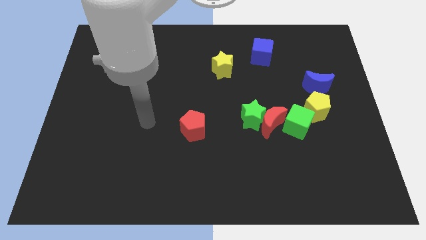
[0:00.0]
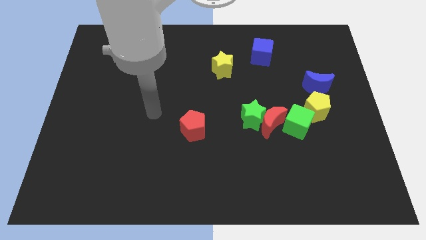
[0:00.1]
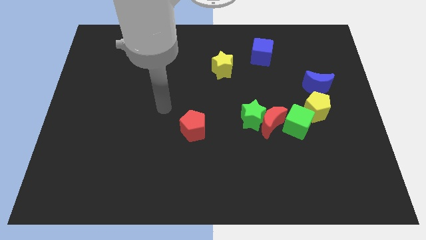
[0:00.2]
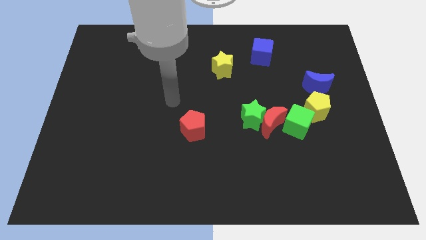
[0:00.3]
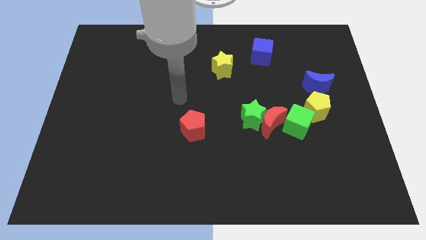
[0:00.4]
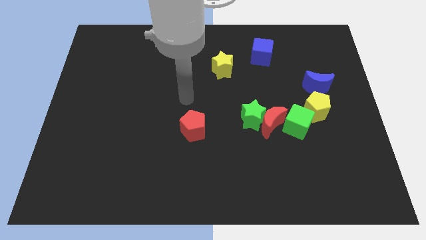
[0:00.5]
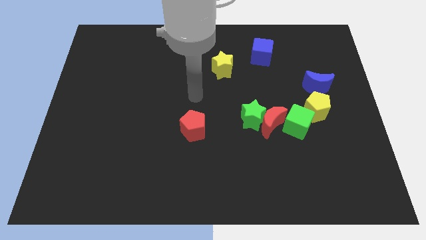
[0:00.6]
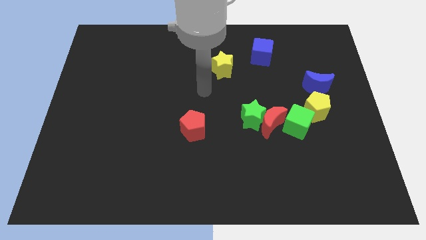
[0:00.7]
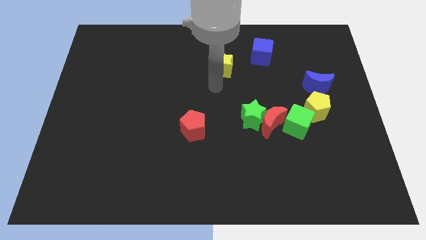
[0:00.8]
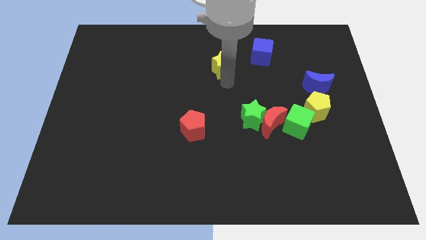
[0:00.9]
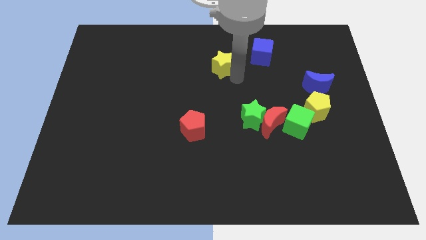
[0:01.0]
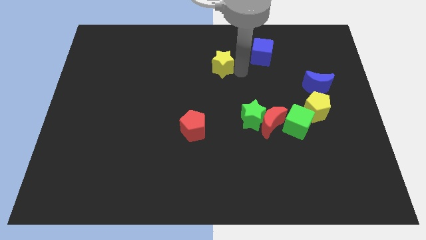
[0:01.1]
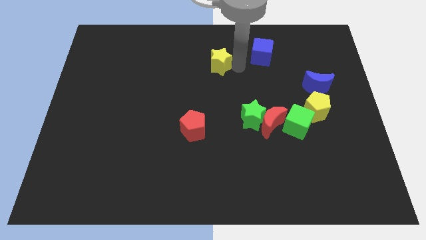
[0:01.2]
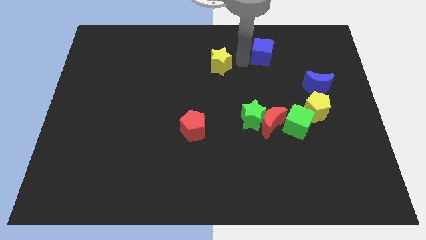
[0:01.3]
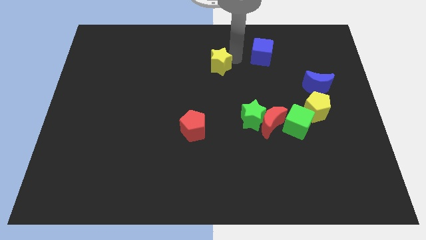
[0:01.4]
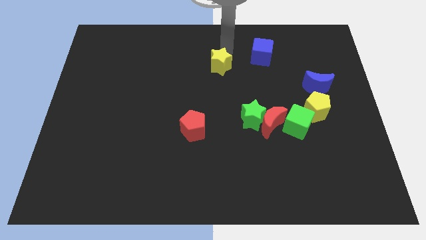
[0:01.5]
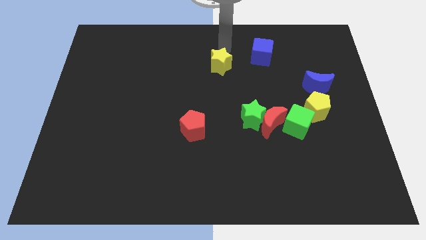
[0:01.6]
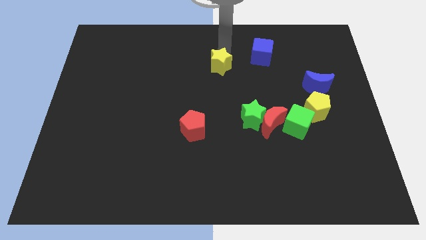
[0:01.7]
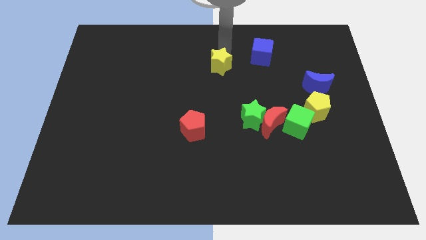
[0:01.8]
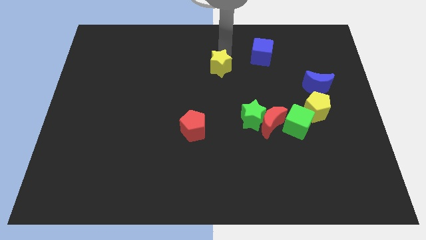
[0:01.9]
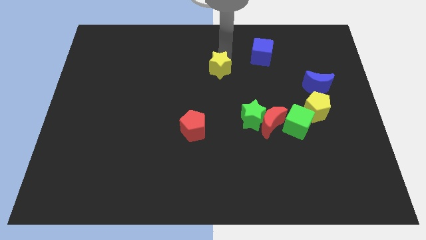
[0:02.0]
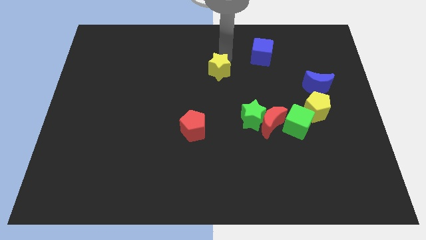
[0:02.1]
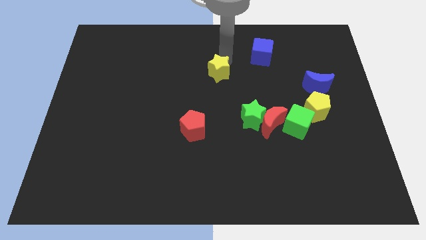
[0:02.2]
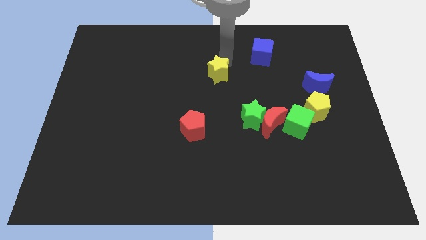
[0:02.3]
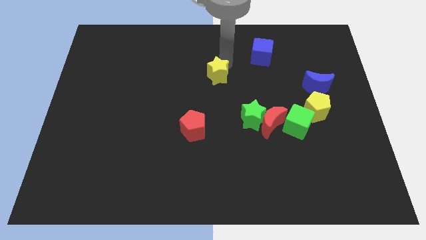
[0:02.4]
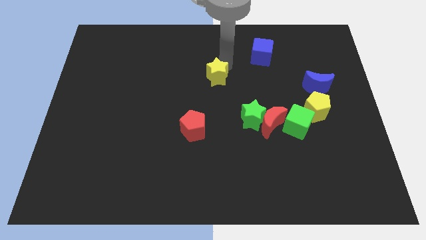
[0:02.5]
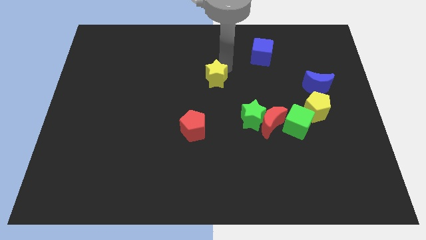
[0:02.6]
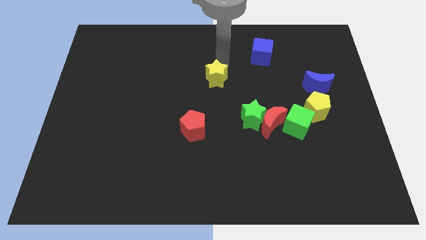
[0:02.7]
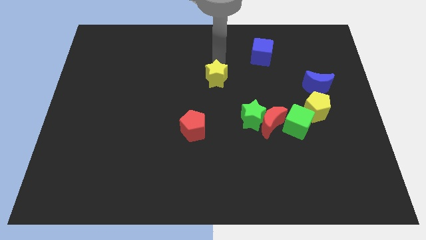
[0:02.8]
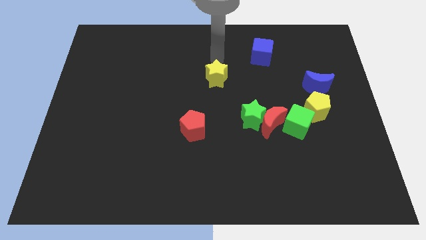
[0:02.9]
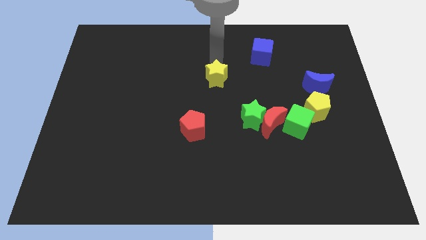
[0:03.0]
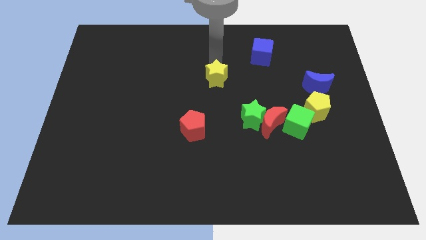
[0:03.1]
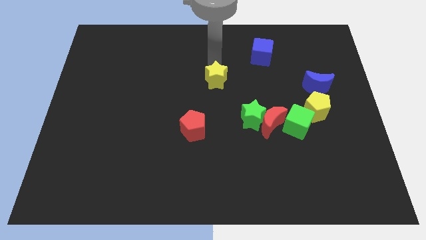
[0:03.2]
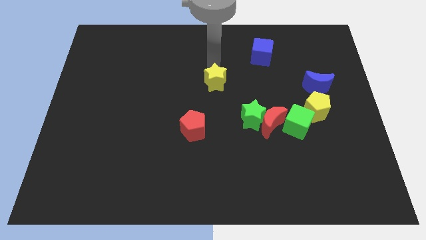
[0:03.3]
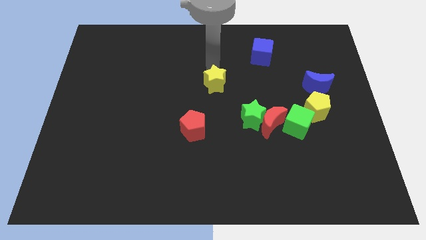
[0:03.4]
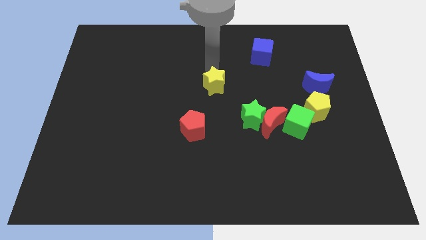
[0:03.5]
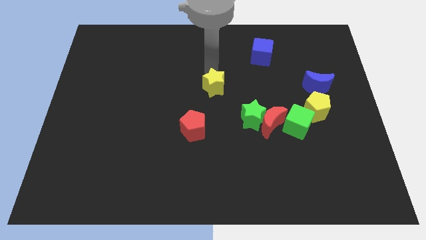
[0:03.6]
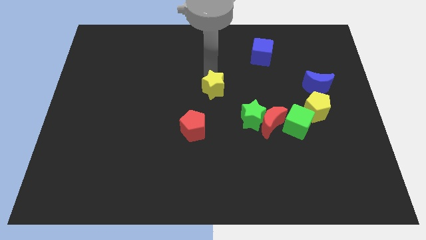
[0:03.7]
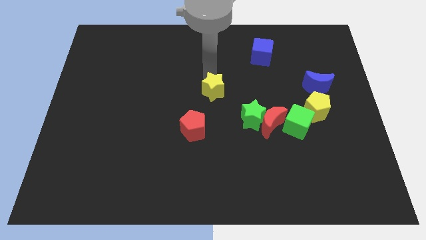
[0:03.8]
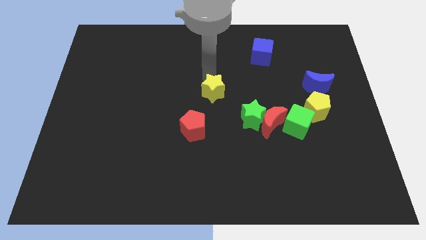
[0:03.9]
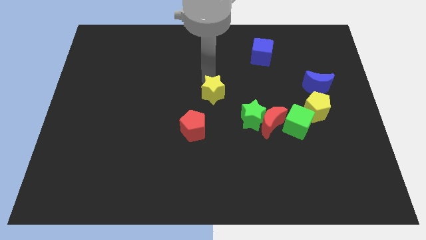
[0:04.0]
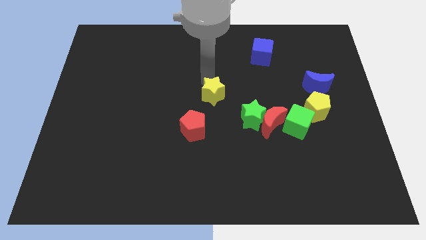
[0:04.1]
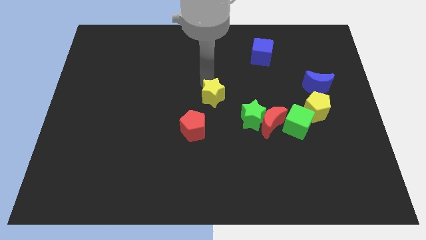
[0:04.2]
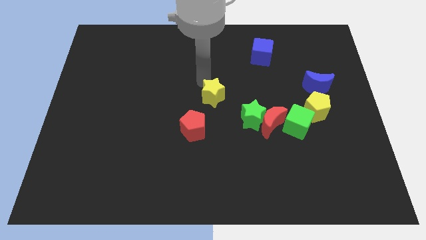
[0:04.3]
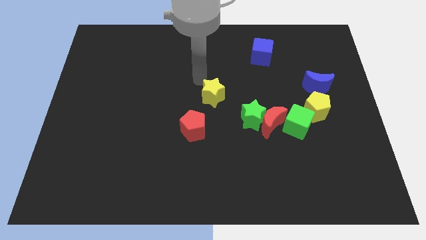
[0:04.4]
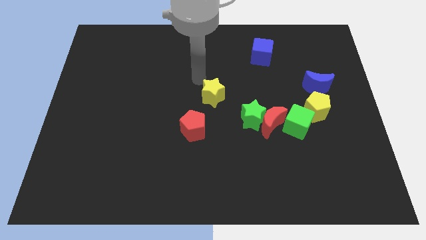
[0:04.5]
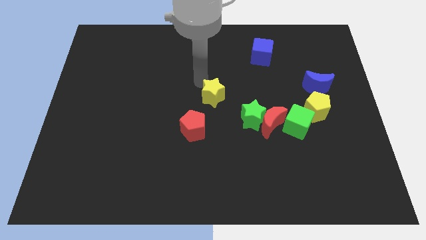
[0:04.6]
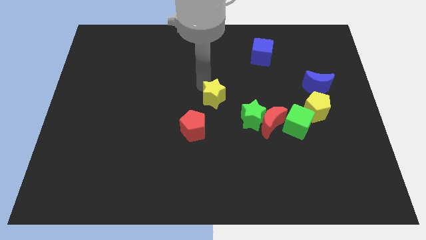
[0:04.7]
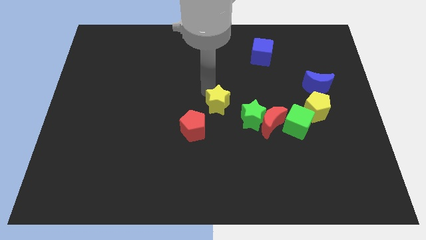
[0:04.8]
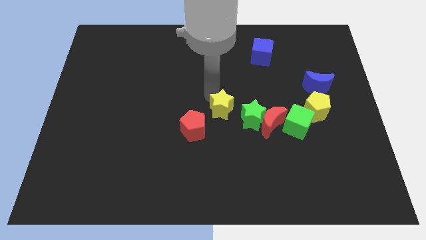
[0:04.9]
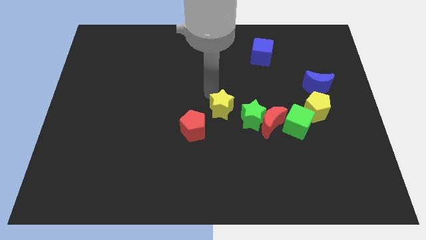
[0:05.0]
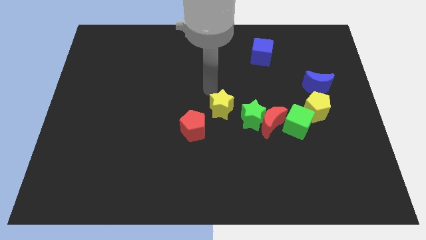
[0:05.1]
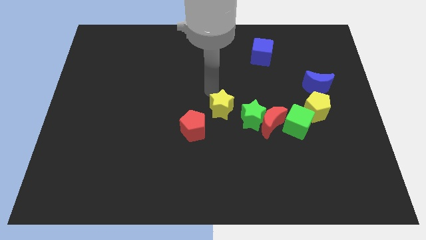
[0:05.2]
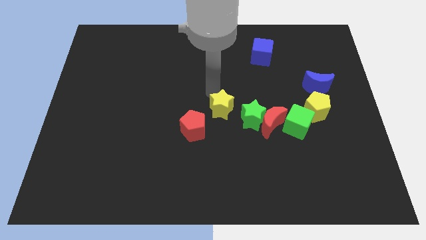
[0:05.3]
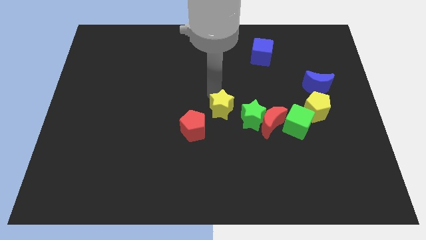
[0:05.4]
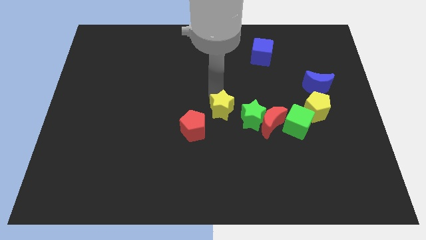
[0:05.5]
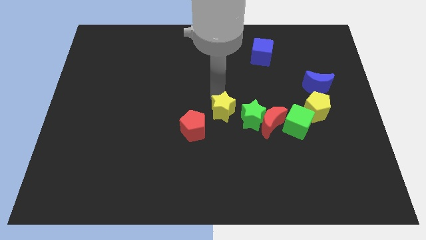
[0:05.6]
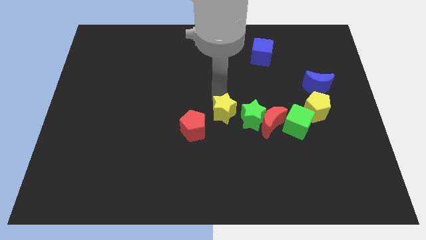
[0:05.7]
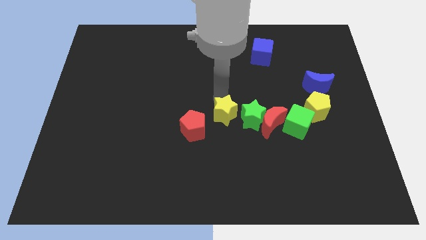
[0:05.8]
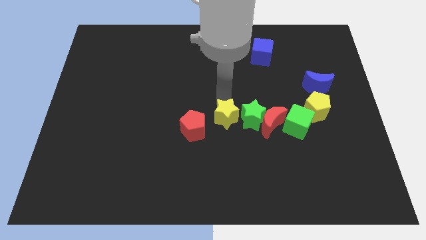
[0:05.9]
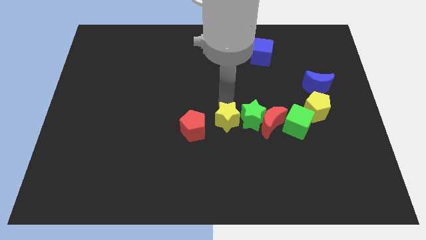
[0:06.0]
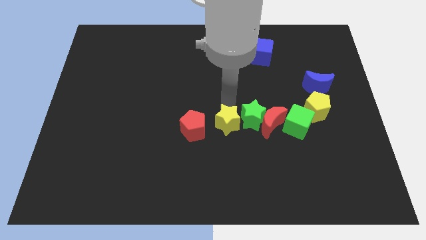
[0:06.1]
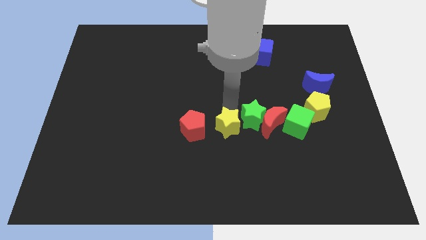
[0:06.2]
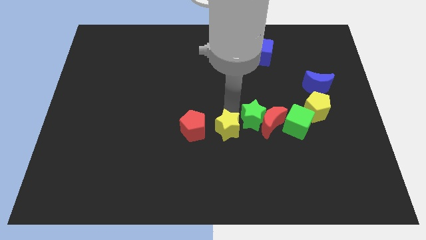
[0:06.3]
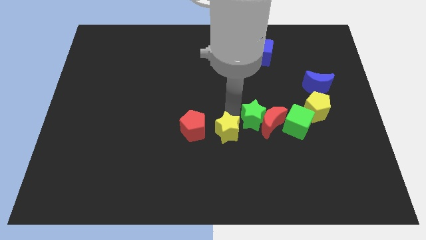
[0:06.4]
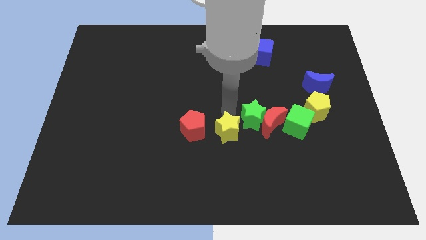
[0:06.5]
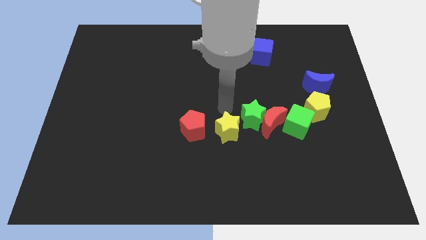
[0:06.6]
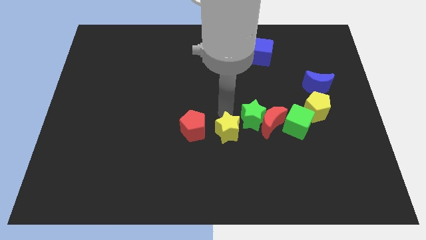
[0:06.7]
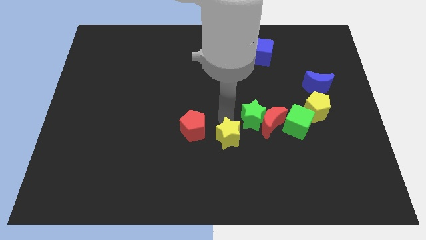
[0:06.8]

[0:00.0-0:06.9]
move the yellow star down

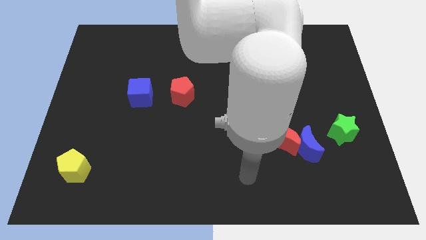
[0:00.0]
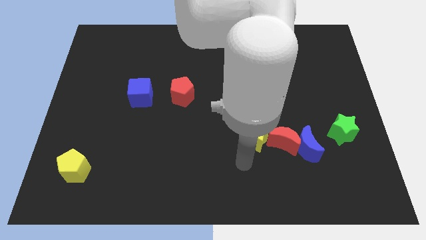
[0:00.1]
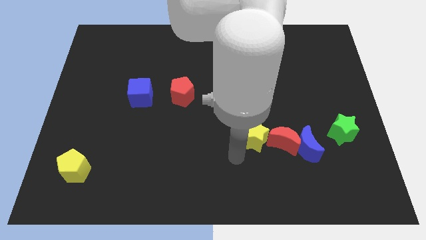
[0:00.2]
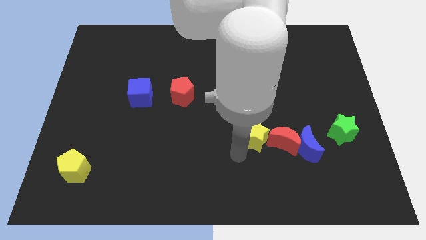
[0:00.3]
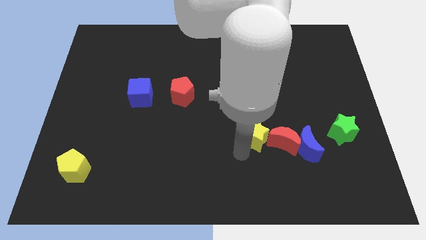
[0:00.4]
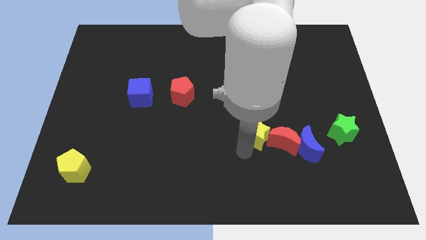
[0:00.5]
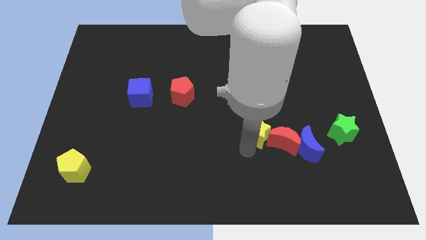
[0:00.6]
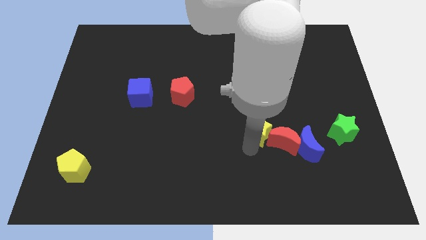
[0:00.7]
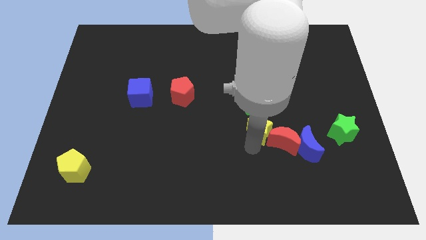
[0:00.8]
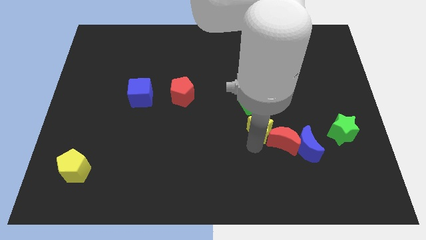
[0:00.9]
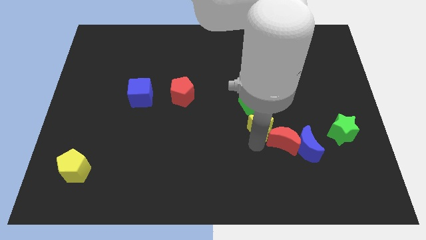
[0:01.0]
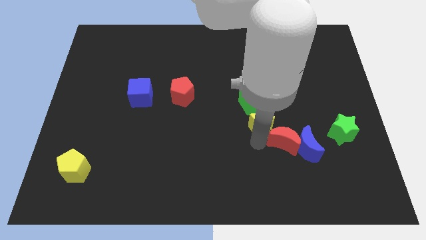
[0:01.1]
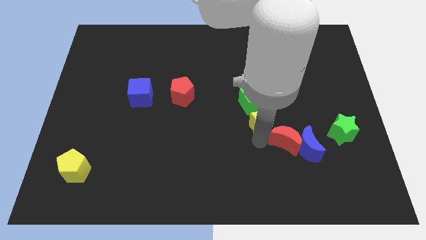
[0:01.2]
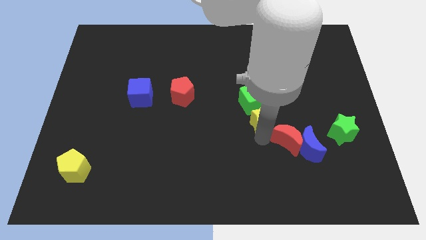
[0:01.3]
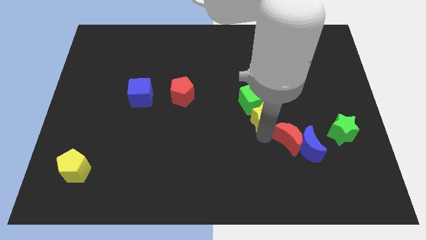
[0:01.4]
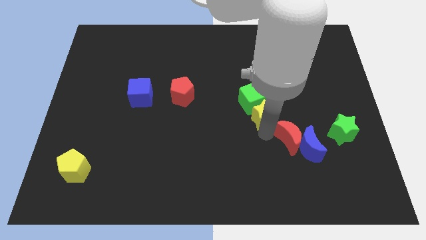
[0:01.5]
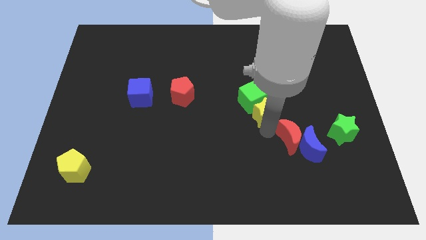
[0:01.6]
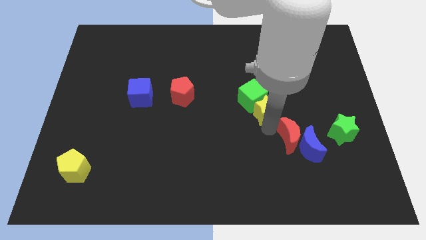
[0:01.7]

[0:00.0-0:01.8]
move the yellow star a bit upwards and to the right
